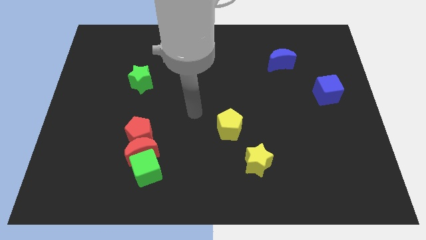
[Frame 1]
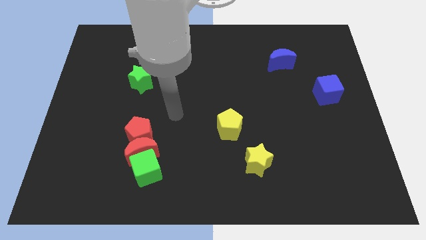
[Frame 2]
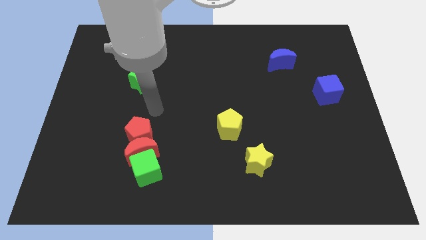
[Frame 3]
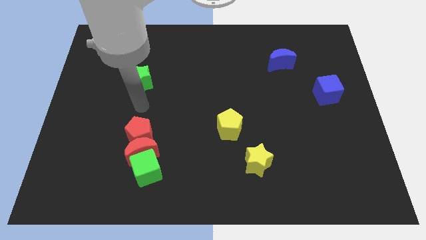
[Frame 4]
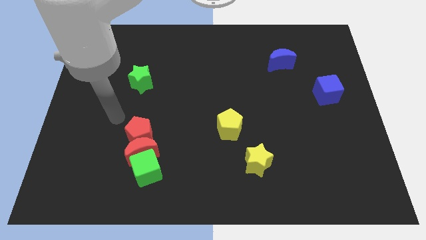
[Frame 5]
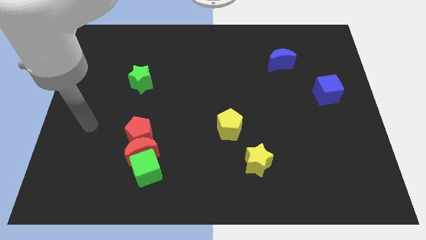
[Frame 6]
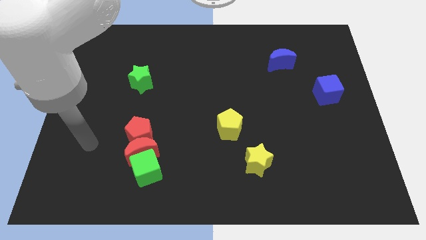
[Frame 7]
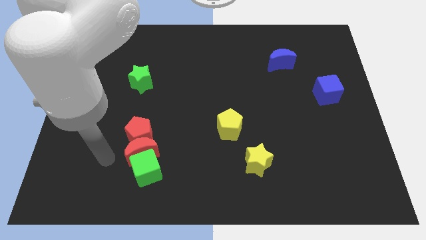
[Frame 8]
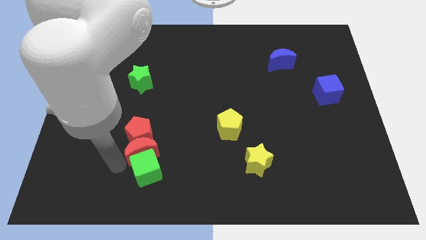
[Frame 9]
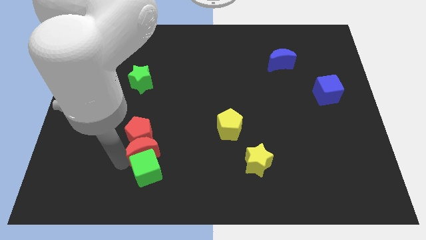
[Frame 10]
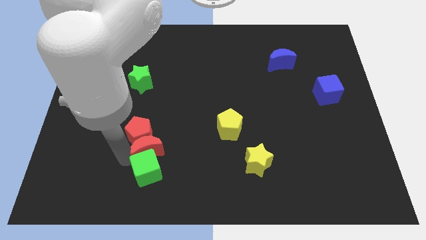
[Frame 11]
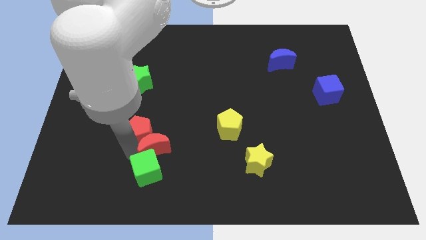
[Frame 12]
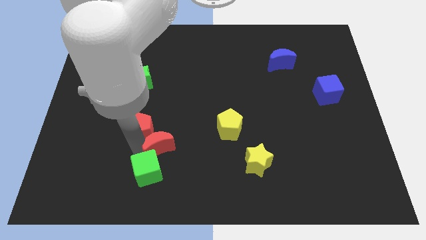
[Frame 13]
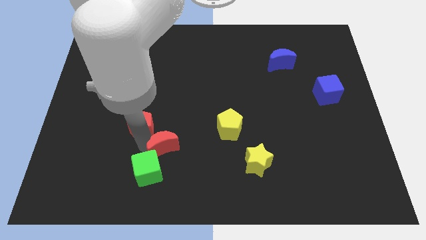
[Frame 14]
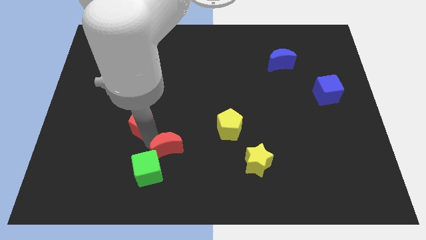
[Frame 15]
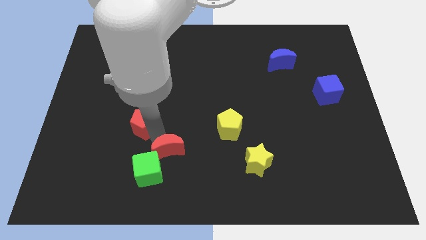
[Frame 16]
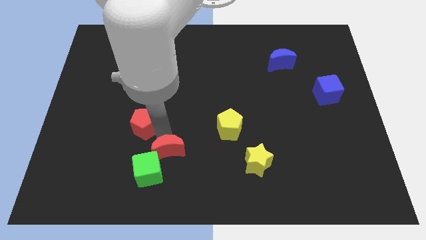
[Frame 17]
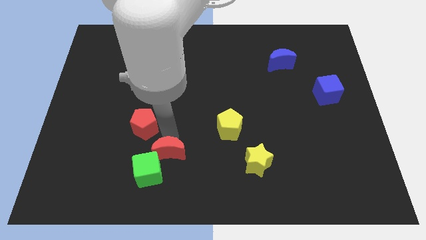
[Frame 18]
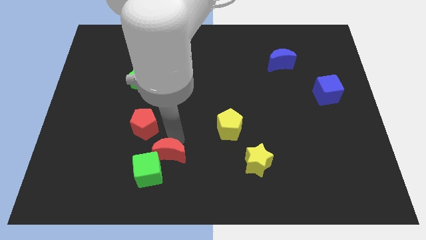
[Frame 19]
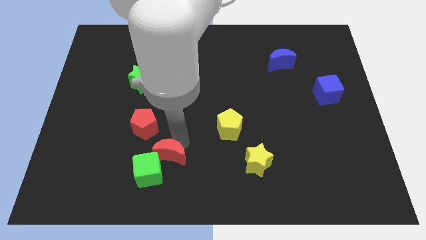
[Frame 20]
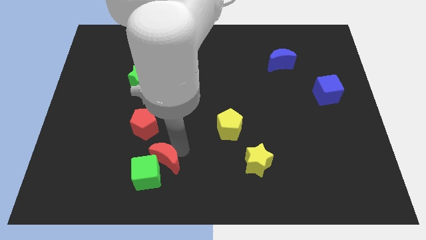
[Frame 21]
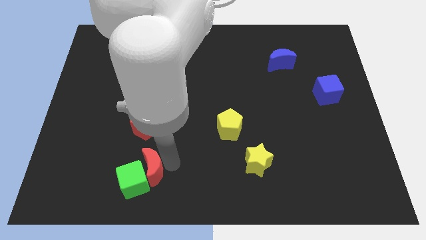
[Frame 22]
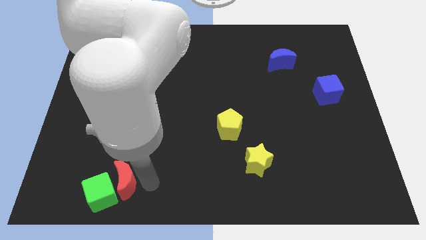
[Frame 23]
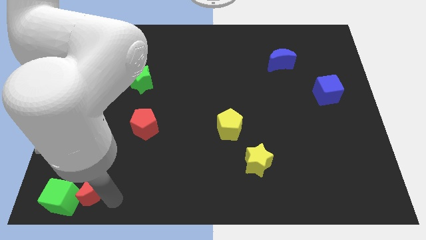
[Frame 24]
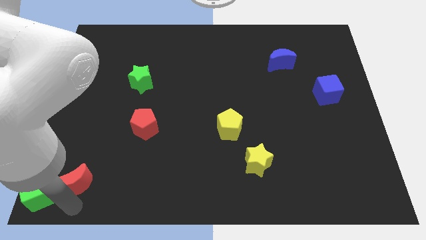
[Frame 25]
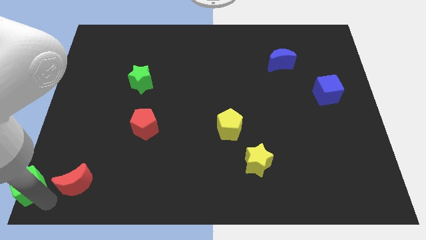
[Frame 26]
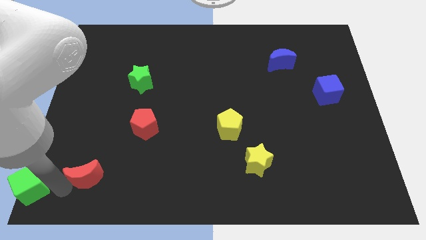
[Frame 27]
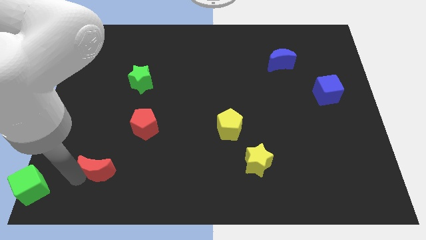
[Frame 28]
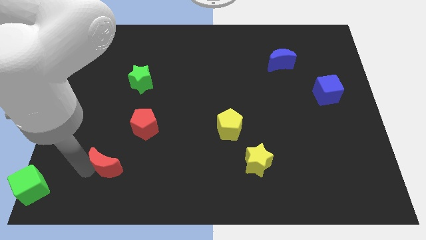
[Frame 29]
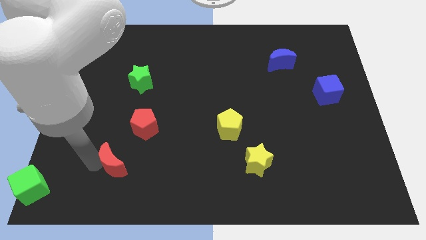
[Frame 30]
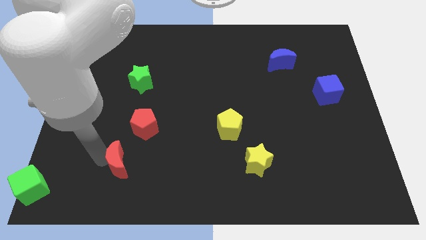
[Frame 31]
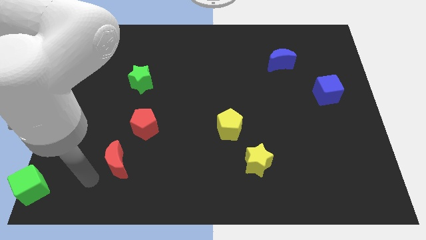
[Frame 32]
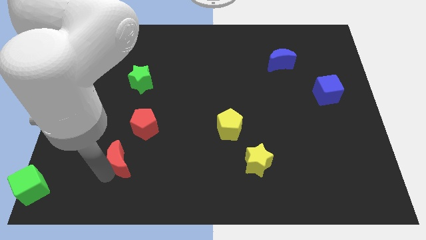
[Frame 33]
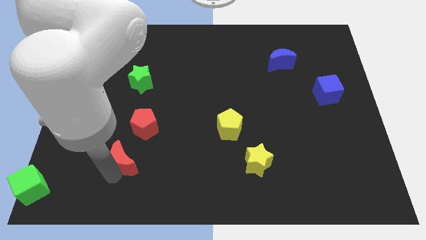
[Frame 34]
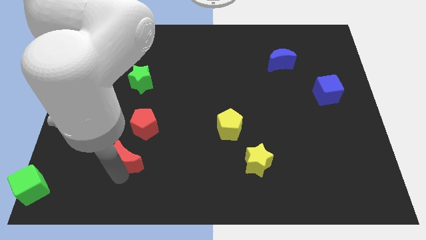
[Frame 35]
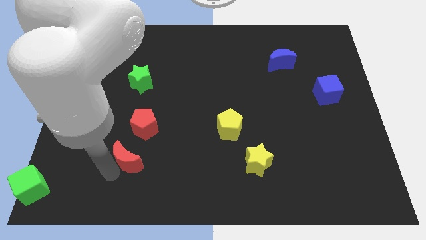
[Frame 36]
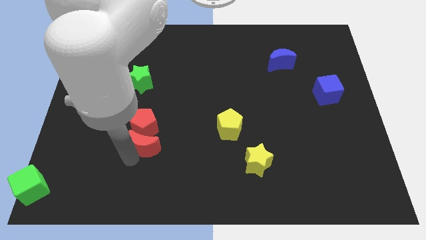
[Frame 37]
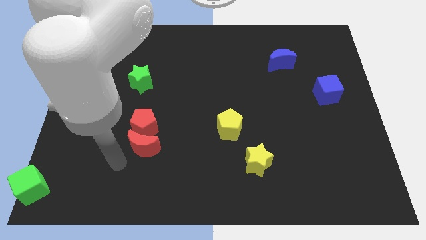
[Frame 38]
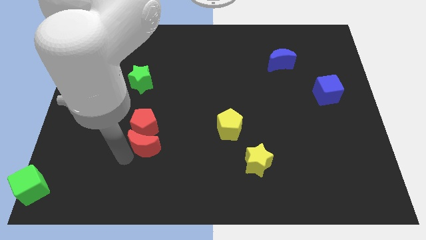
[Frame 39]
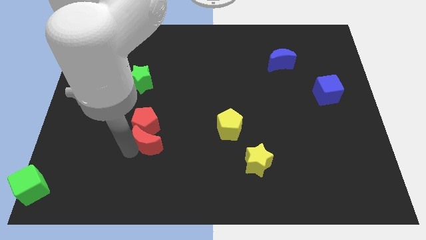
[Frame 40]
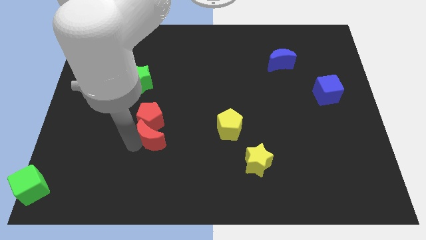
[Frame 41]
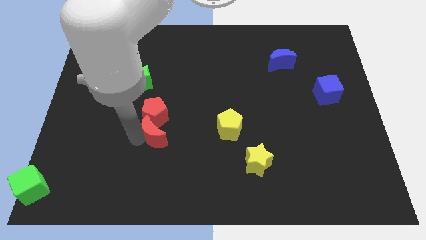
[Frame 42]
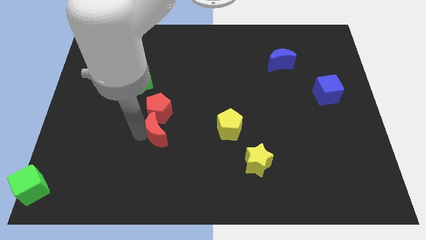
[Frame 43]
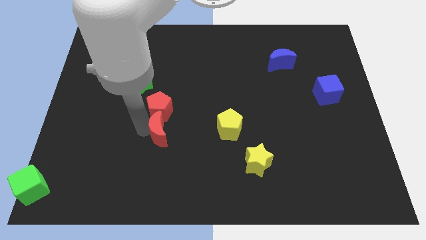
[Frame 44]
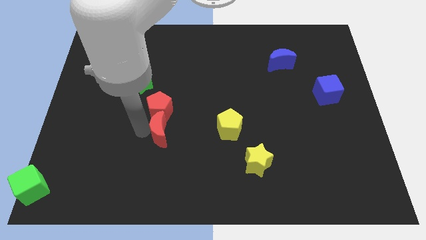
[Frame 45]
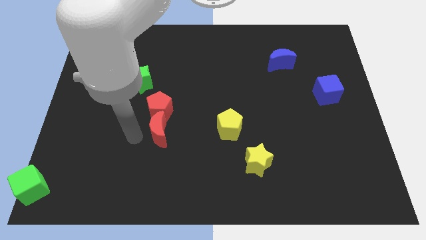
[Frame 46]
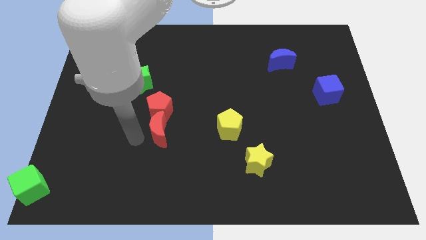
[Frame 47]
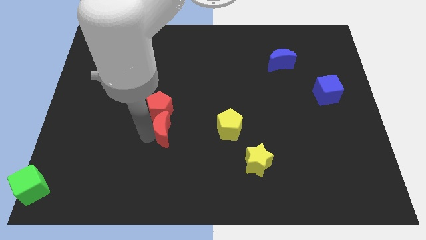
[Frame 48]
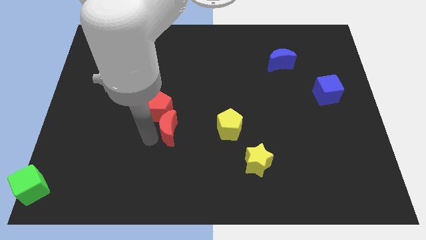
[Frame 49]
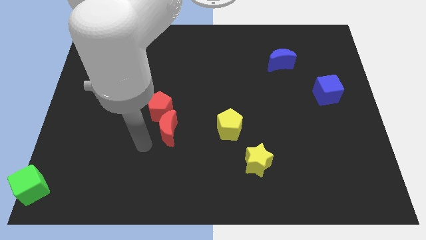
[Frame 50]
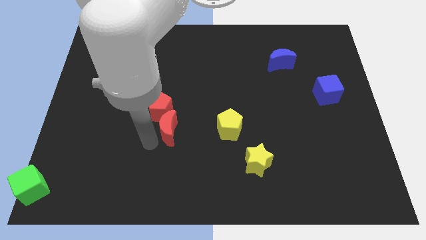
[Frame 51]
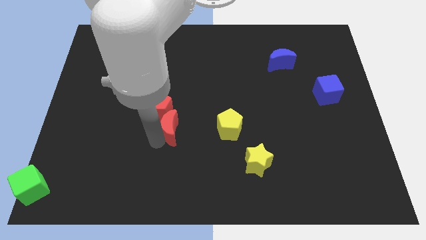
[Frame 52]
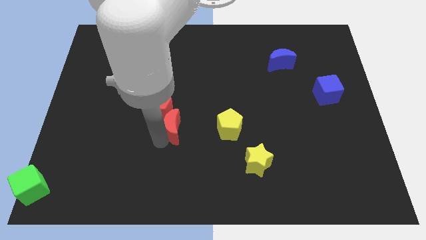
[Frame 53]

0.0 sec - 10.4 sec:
slide the red moon to the middle of the board
